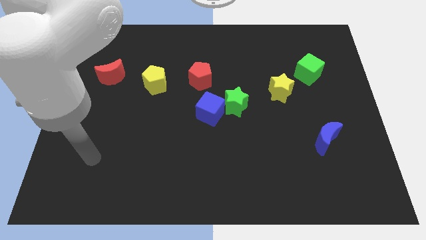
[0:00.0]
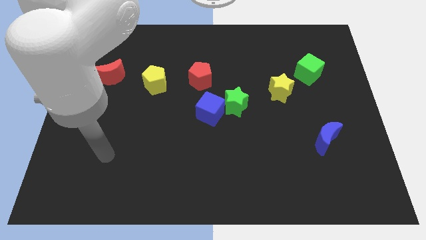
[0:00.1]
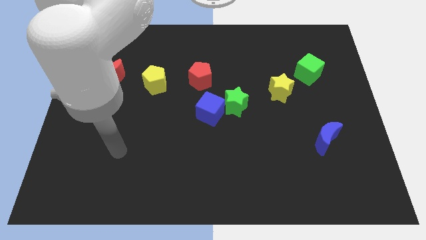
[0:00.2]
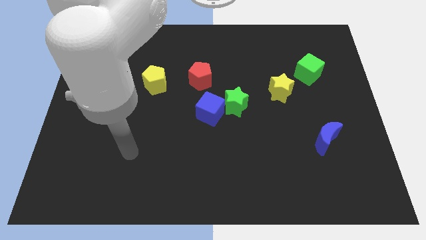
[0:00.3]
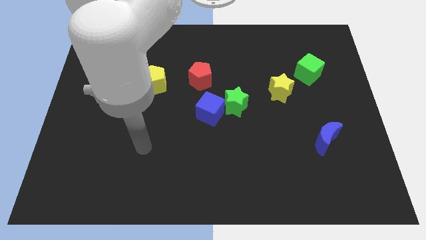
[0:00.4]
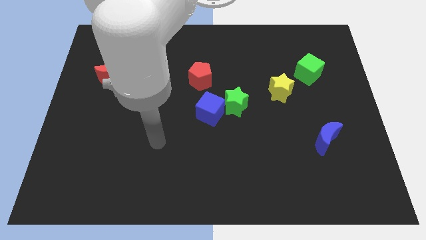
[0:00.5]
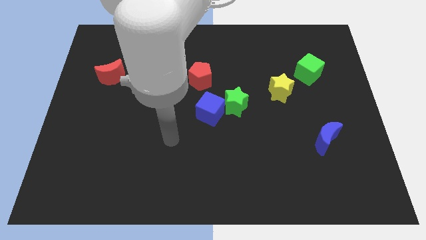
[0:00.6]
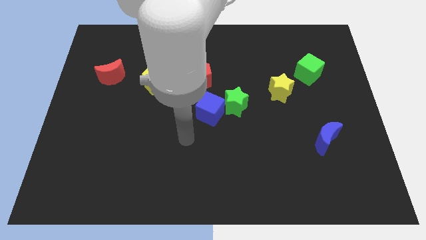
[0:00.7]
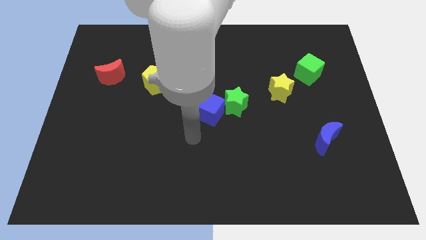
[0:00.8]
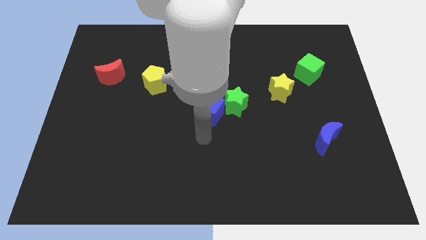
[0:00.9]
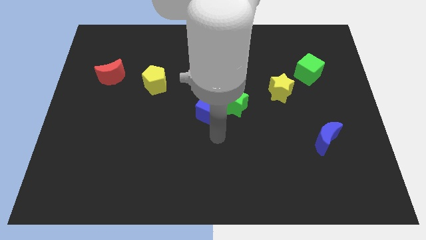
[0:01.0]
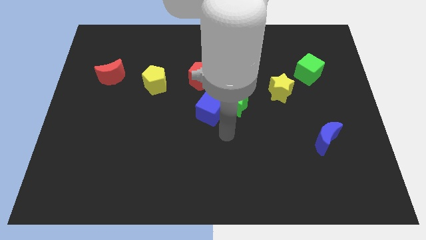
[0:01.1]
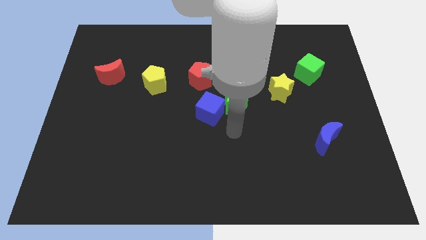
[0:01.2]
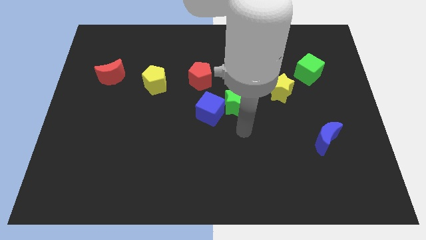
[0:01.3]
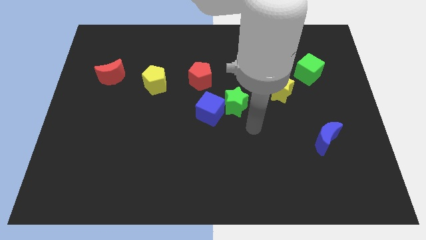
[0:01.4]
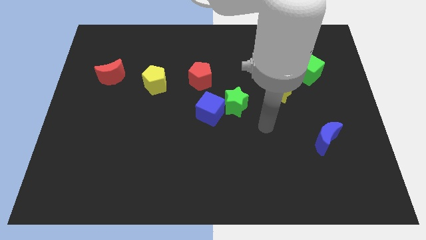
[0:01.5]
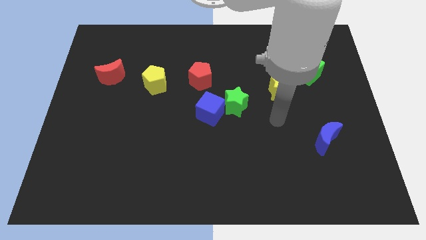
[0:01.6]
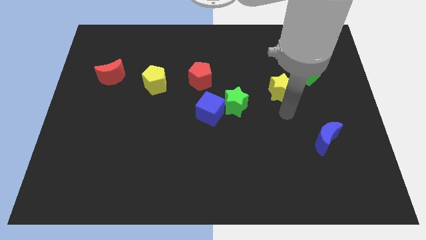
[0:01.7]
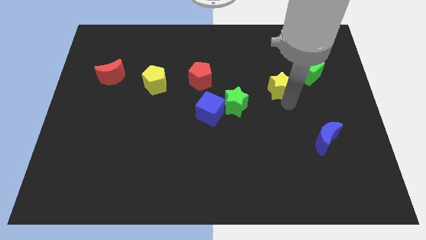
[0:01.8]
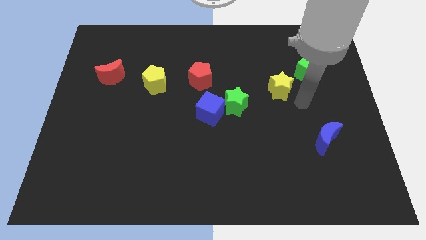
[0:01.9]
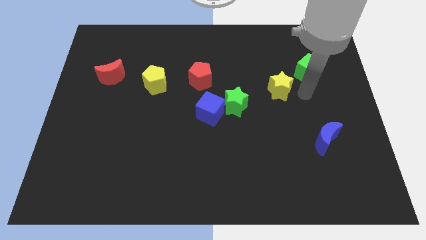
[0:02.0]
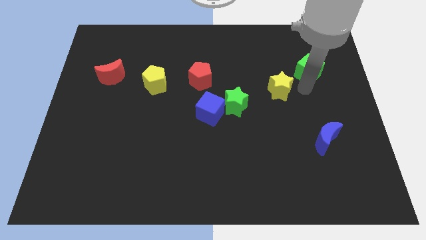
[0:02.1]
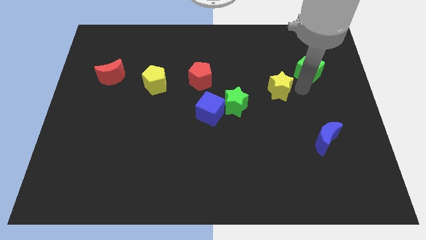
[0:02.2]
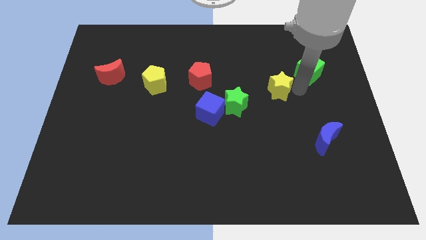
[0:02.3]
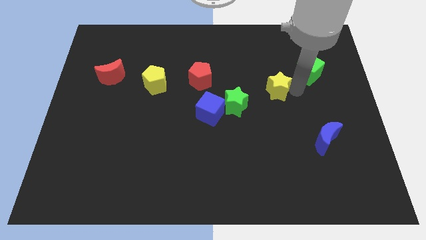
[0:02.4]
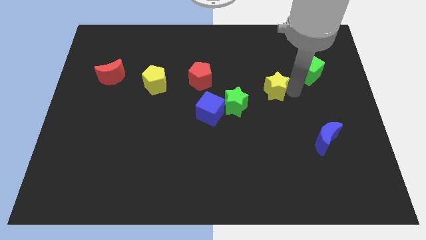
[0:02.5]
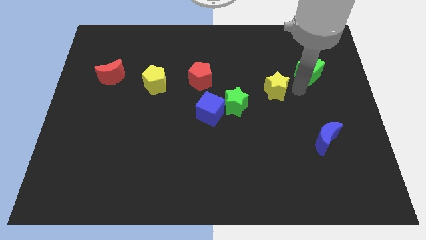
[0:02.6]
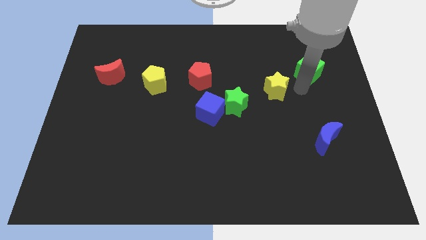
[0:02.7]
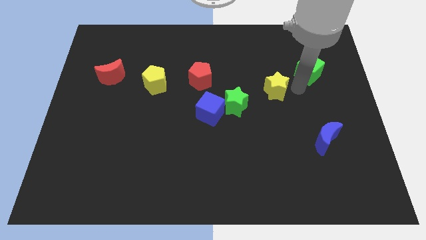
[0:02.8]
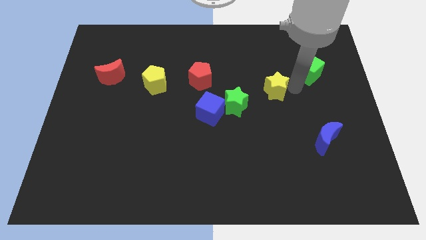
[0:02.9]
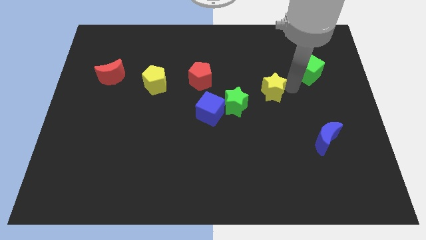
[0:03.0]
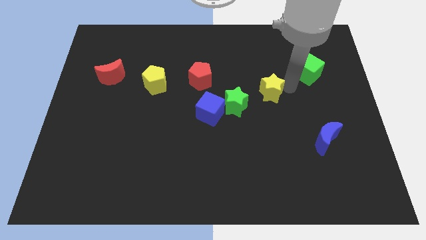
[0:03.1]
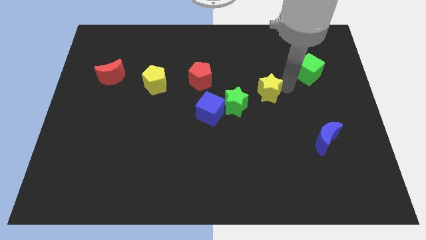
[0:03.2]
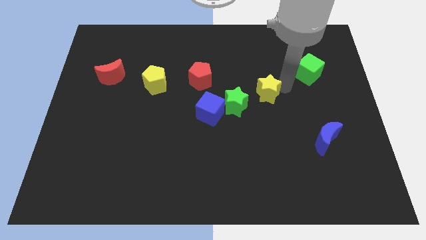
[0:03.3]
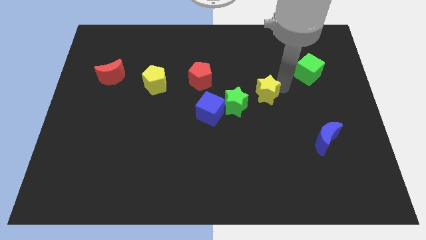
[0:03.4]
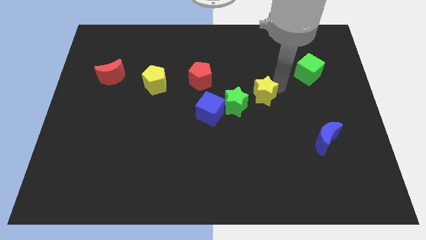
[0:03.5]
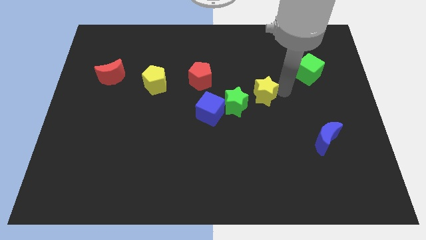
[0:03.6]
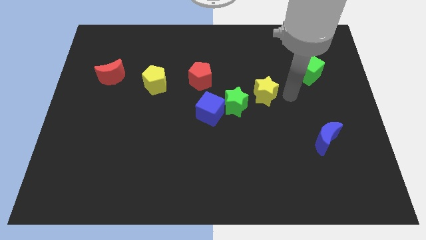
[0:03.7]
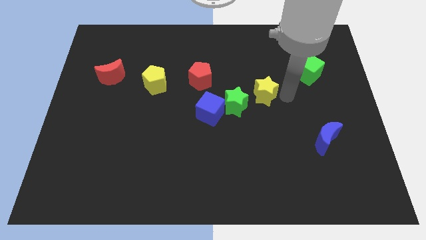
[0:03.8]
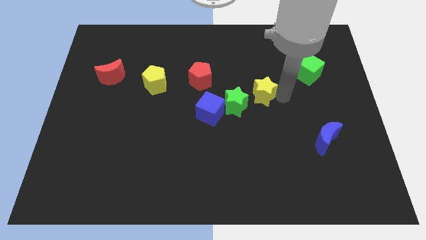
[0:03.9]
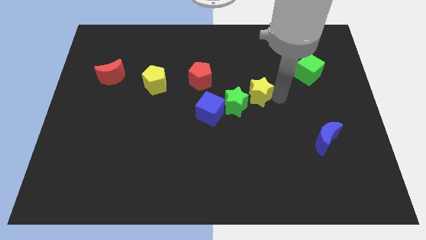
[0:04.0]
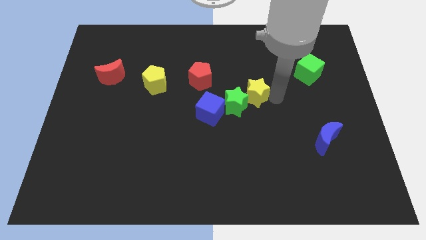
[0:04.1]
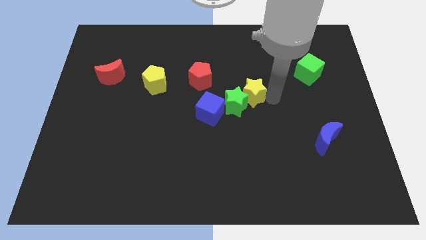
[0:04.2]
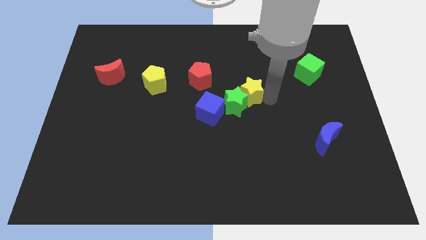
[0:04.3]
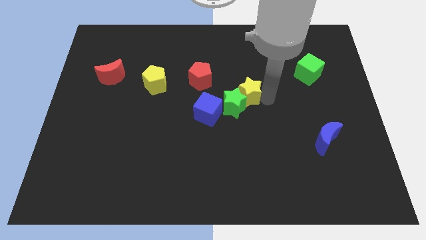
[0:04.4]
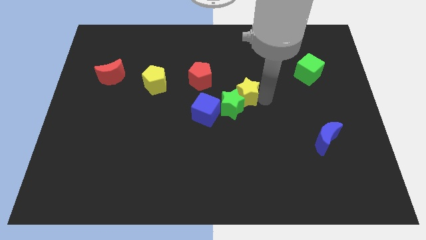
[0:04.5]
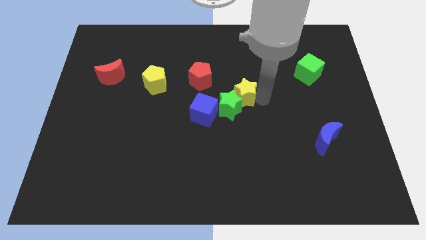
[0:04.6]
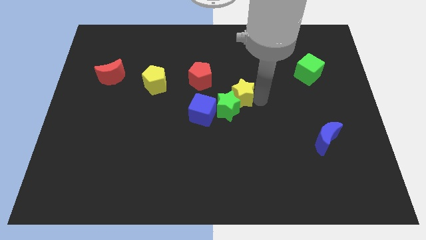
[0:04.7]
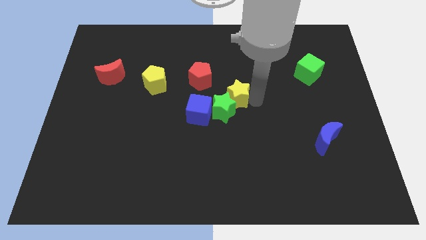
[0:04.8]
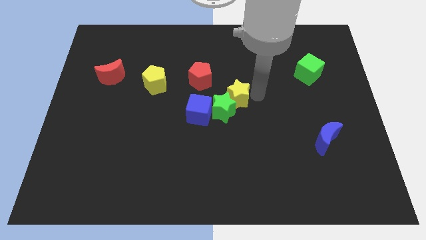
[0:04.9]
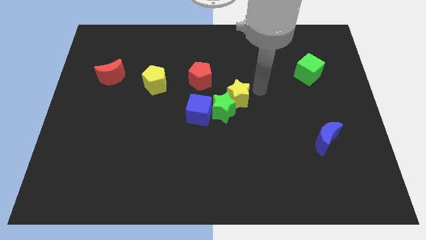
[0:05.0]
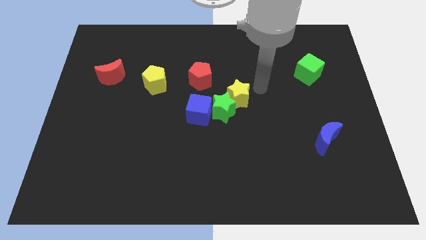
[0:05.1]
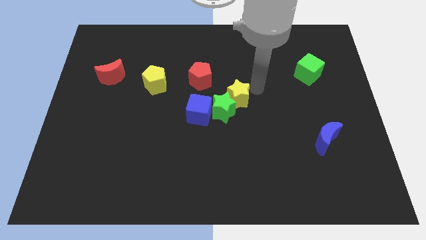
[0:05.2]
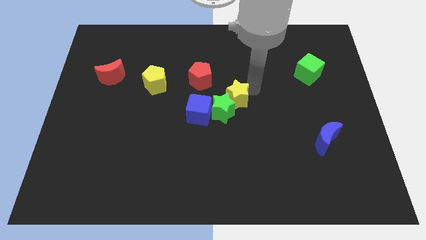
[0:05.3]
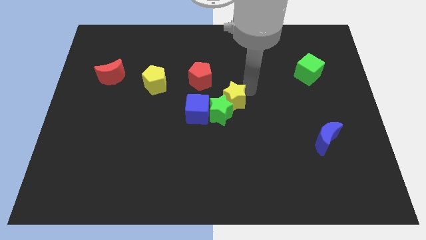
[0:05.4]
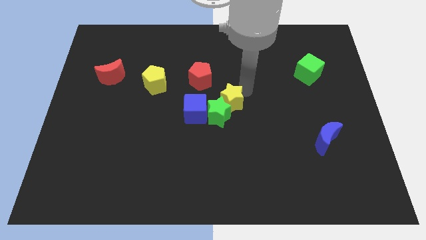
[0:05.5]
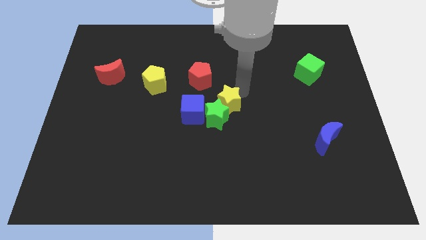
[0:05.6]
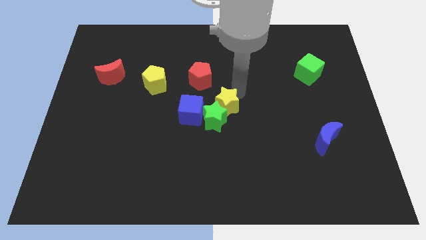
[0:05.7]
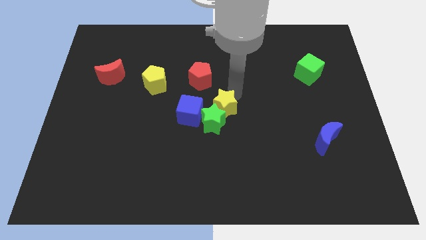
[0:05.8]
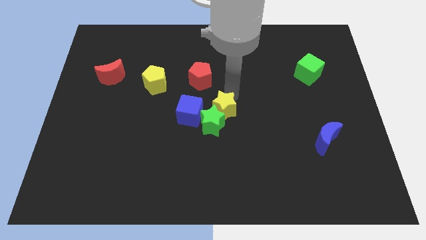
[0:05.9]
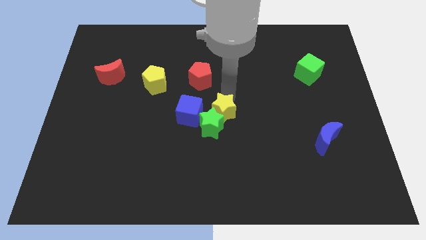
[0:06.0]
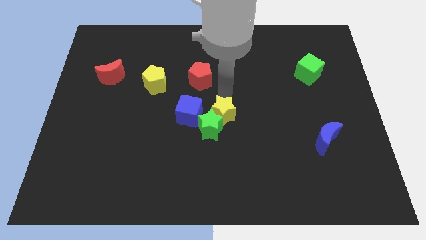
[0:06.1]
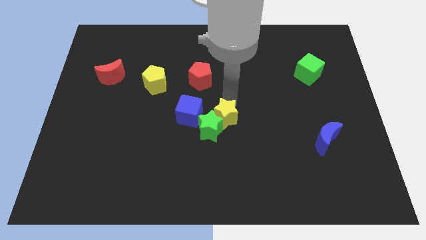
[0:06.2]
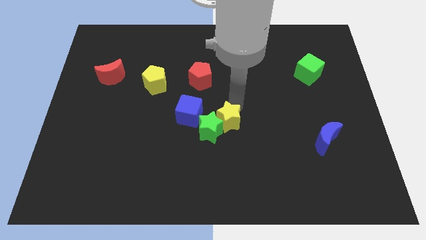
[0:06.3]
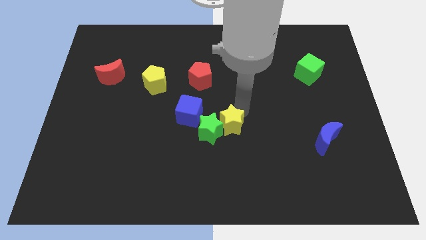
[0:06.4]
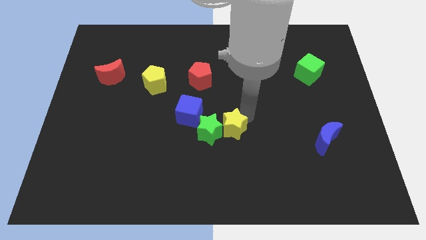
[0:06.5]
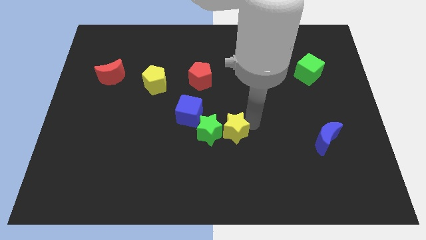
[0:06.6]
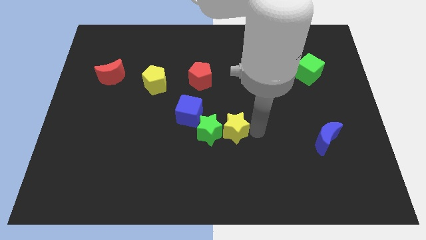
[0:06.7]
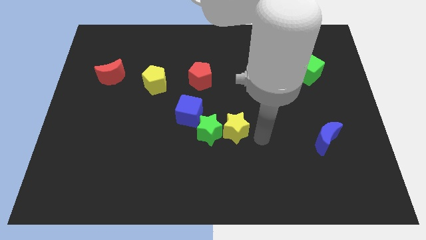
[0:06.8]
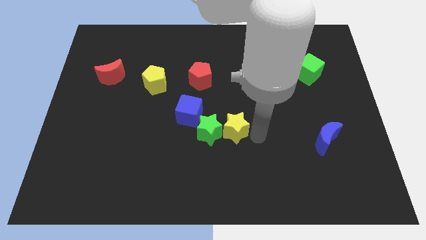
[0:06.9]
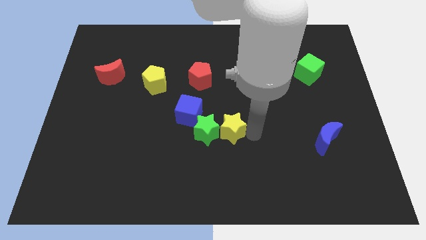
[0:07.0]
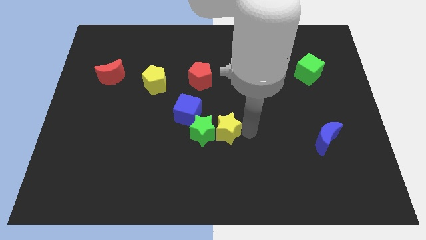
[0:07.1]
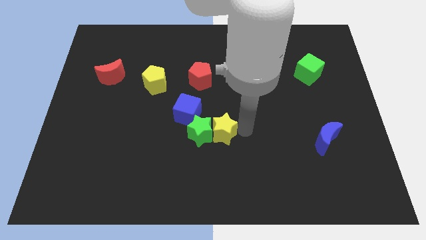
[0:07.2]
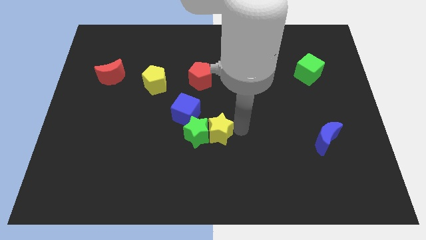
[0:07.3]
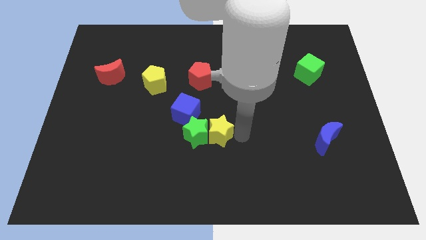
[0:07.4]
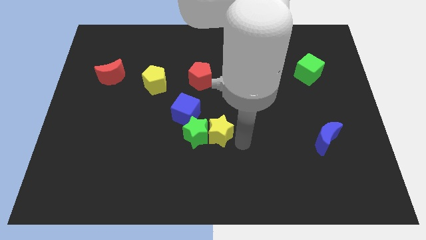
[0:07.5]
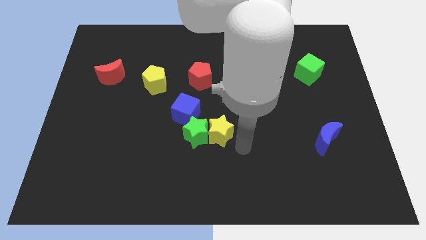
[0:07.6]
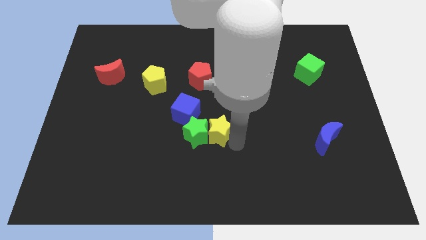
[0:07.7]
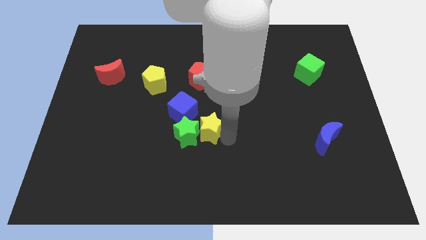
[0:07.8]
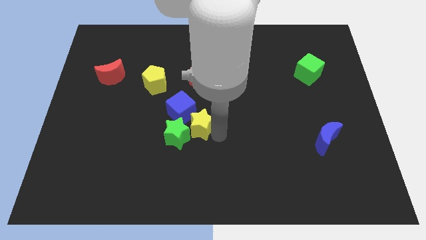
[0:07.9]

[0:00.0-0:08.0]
slide the yellow star to the blue cube
